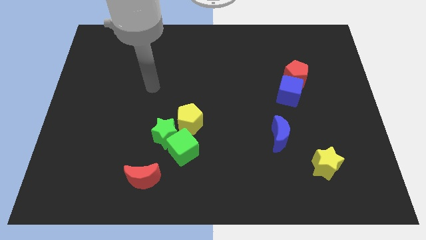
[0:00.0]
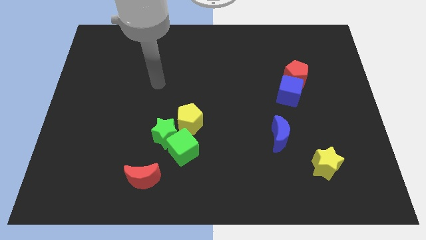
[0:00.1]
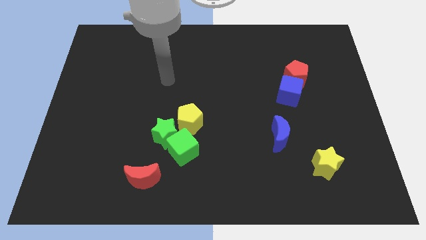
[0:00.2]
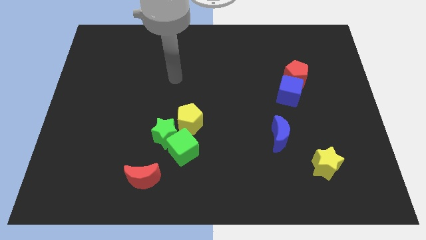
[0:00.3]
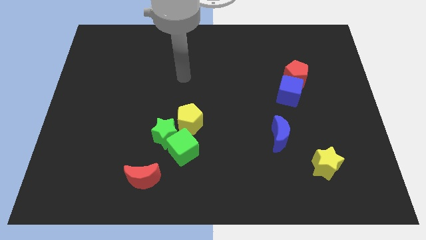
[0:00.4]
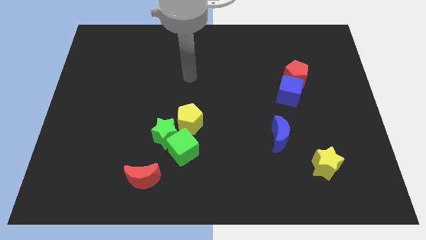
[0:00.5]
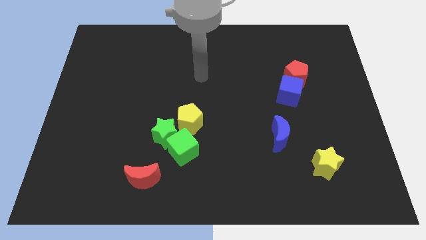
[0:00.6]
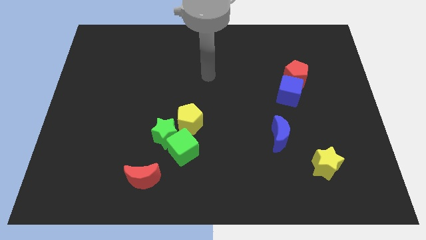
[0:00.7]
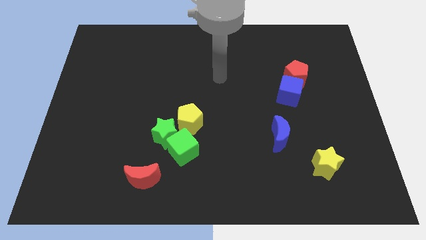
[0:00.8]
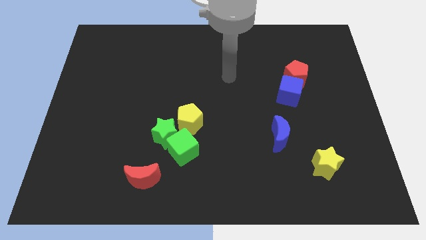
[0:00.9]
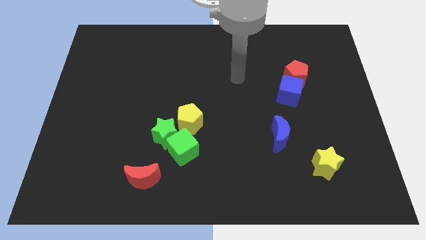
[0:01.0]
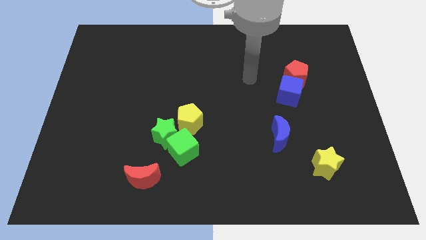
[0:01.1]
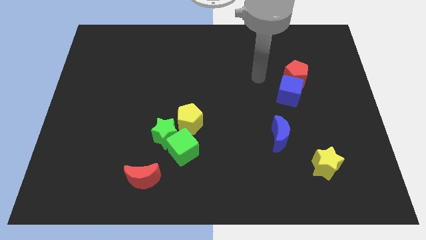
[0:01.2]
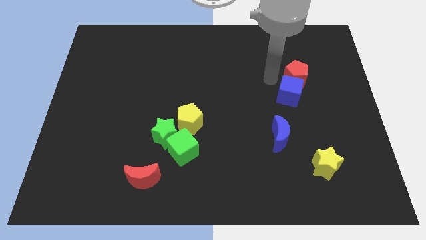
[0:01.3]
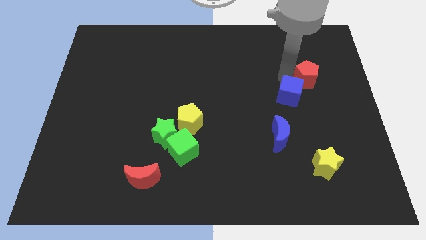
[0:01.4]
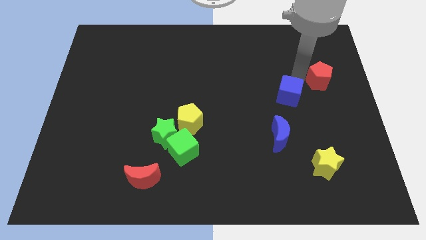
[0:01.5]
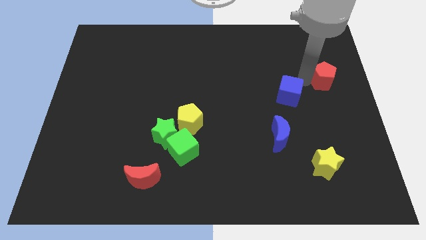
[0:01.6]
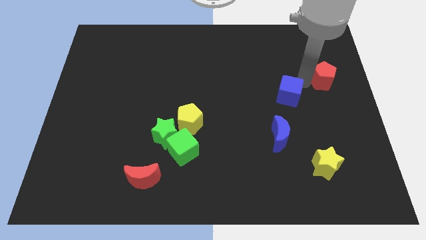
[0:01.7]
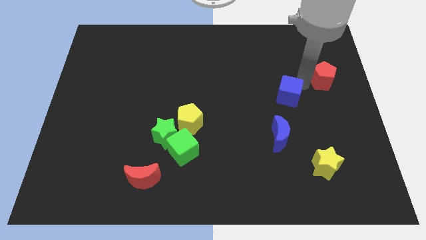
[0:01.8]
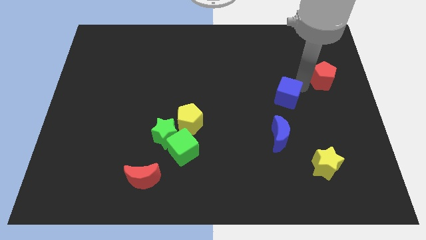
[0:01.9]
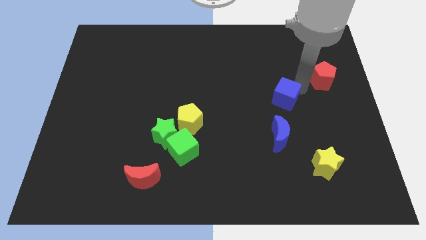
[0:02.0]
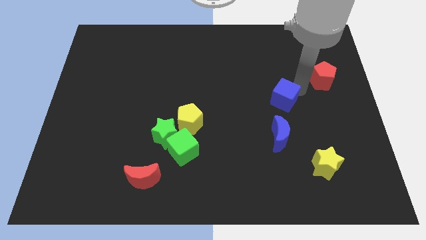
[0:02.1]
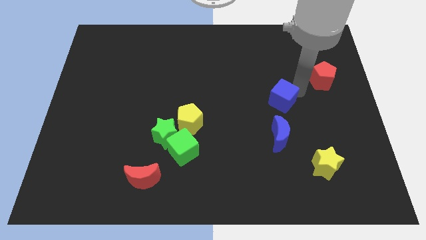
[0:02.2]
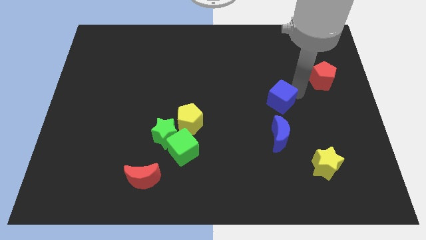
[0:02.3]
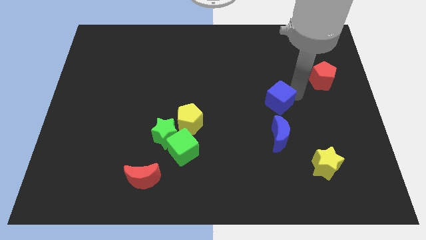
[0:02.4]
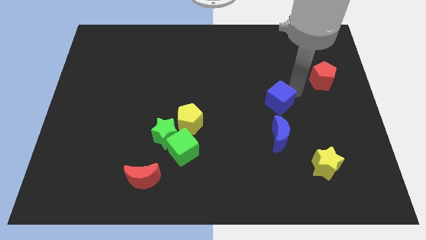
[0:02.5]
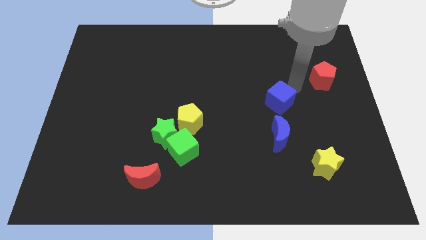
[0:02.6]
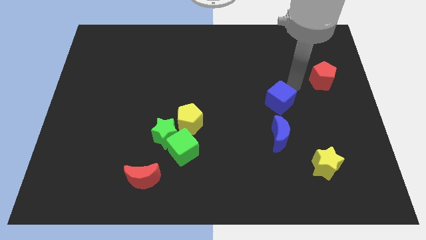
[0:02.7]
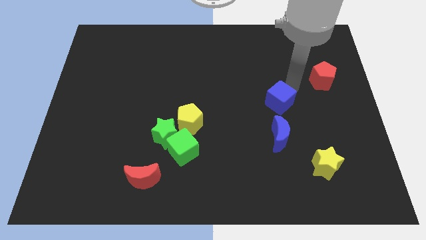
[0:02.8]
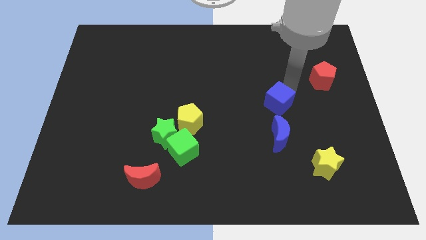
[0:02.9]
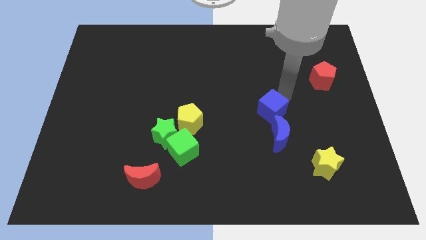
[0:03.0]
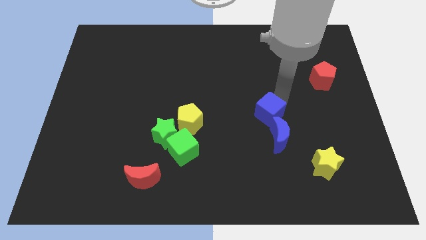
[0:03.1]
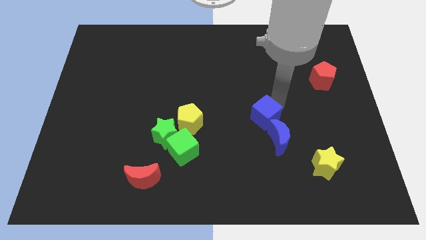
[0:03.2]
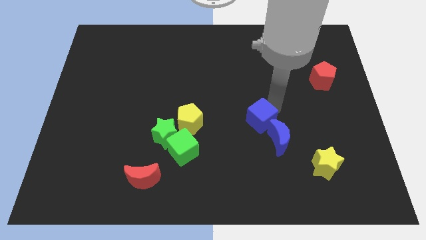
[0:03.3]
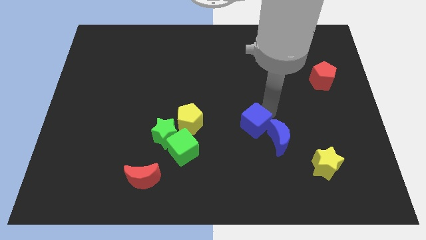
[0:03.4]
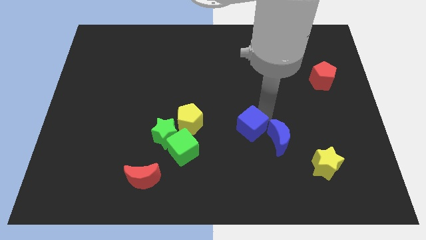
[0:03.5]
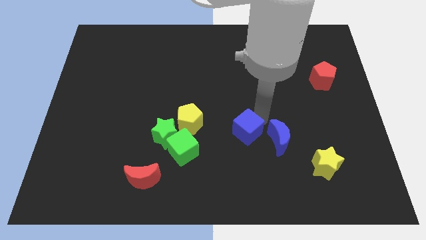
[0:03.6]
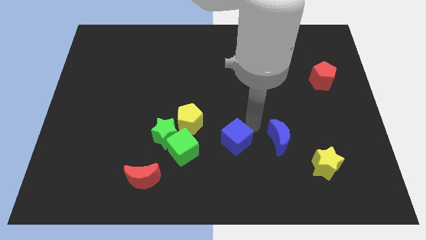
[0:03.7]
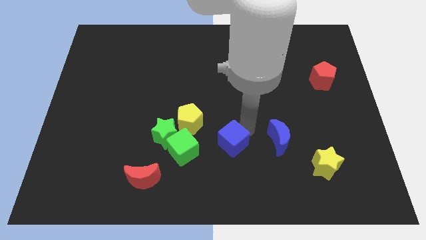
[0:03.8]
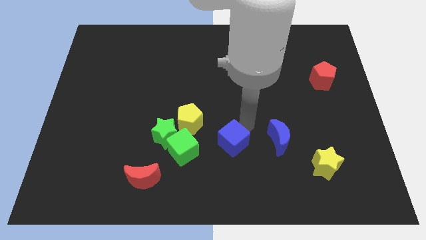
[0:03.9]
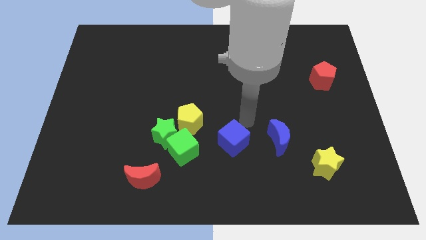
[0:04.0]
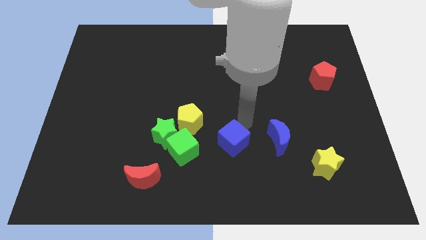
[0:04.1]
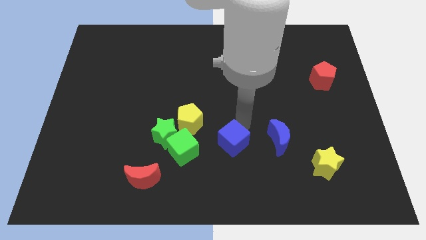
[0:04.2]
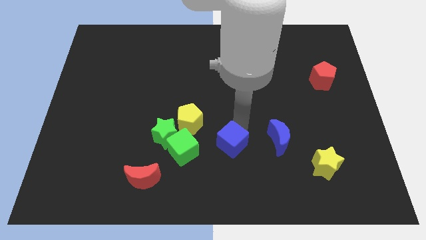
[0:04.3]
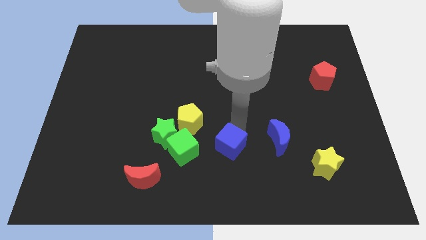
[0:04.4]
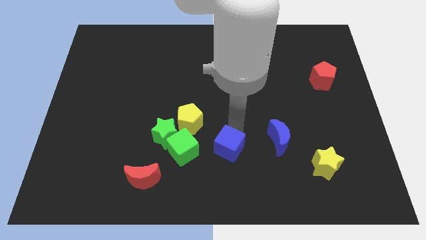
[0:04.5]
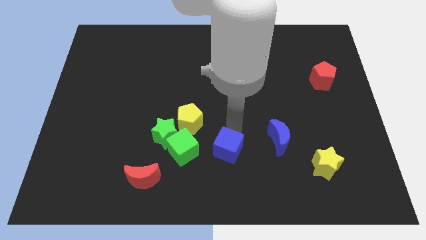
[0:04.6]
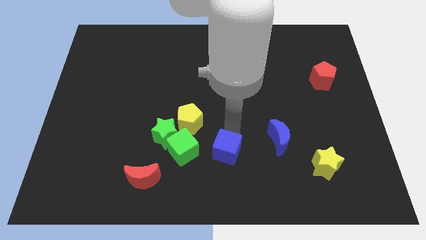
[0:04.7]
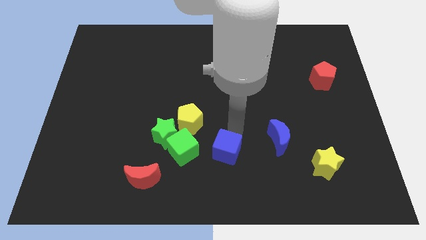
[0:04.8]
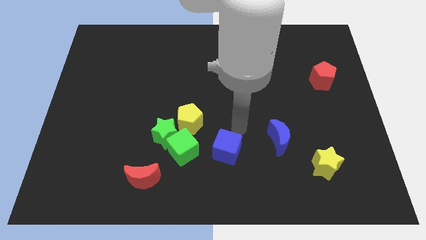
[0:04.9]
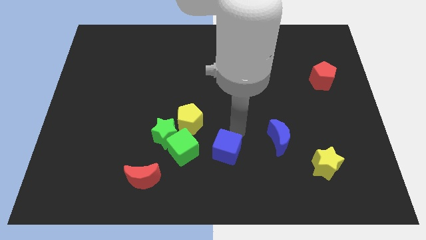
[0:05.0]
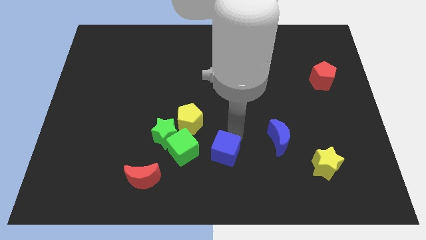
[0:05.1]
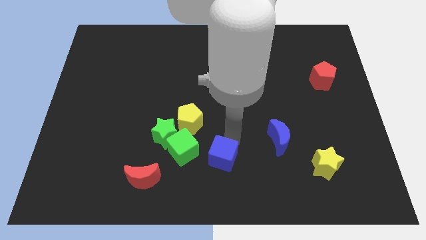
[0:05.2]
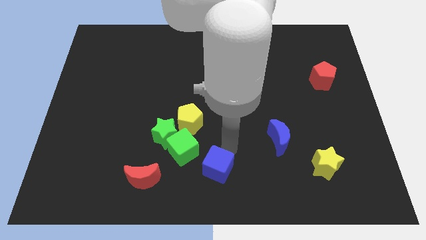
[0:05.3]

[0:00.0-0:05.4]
push the blue cube just right of the red moon

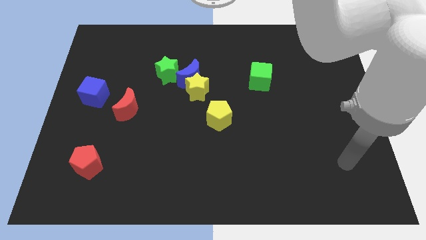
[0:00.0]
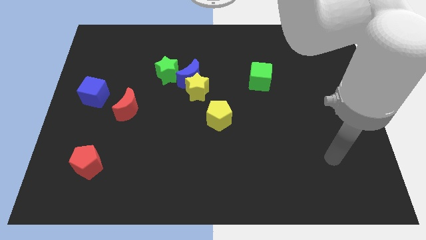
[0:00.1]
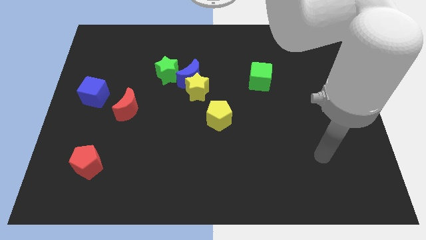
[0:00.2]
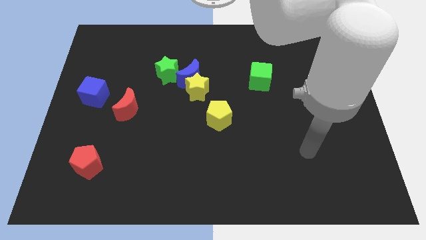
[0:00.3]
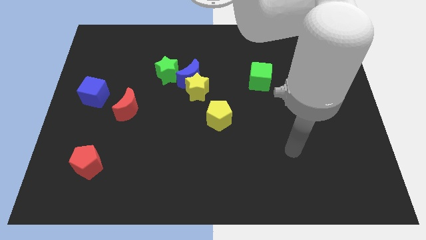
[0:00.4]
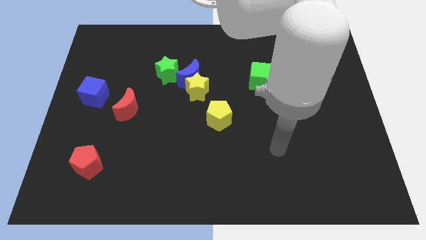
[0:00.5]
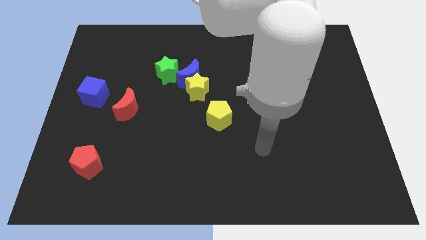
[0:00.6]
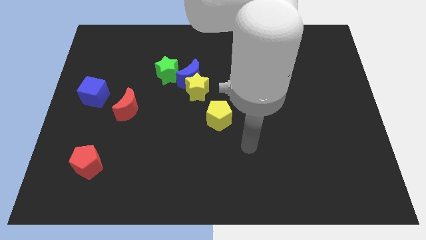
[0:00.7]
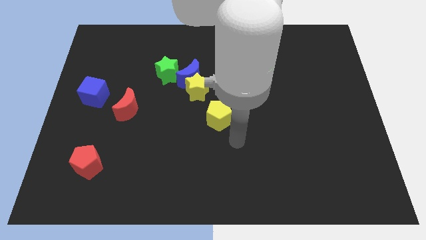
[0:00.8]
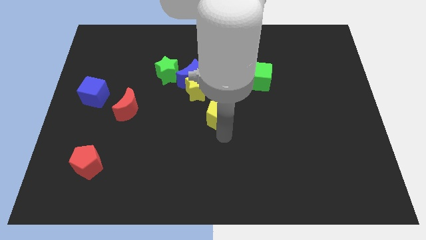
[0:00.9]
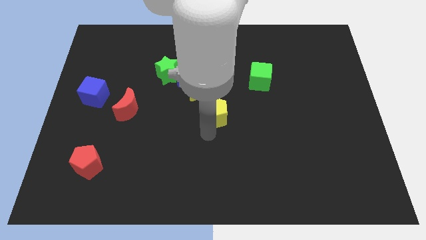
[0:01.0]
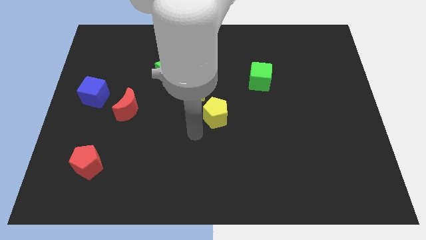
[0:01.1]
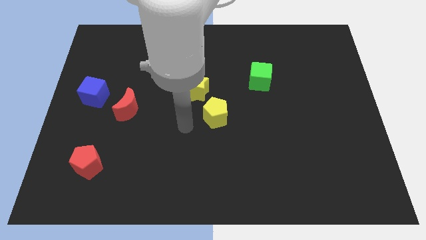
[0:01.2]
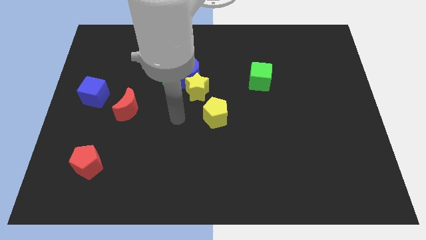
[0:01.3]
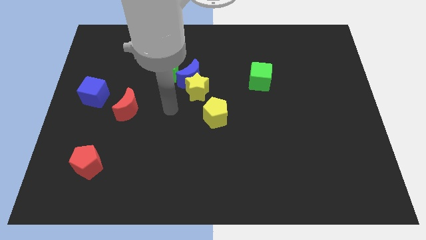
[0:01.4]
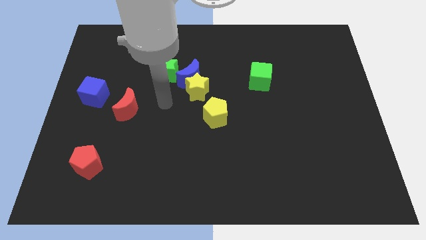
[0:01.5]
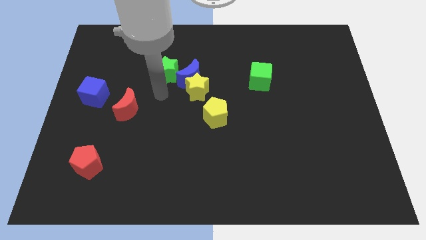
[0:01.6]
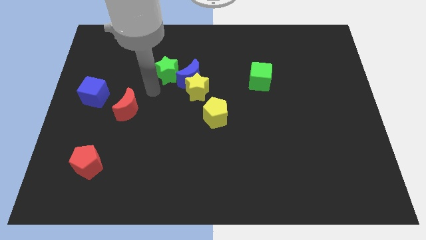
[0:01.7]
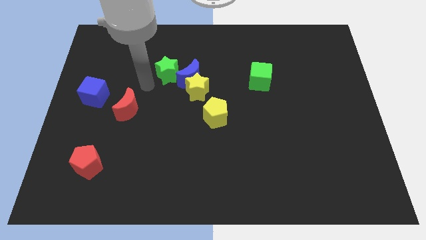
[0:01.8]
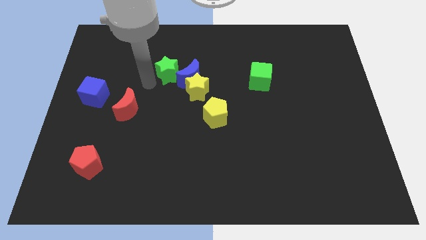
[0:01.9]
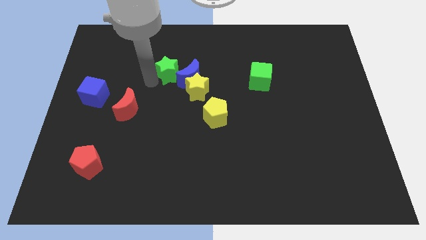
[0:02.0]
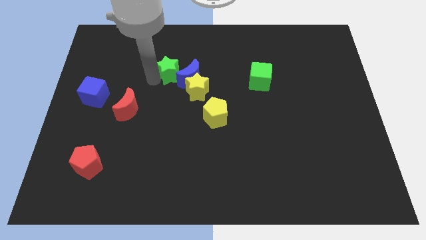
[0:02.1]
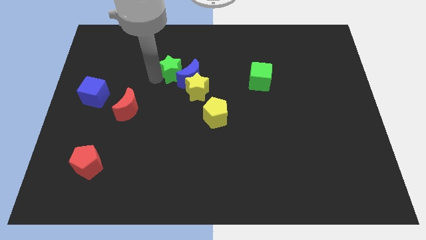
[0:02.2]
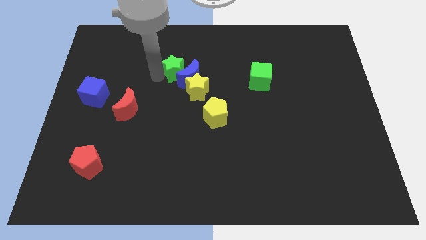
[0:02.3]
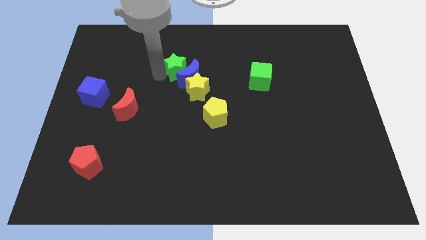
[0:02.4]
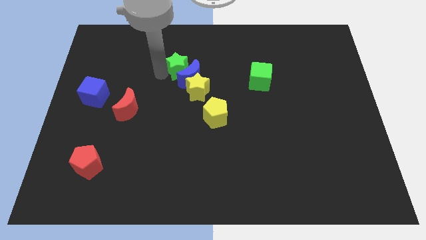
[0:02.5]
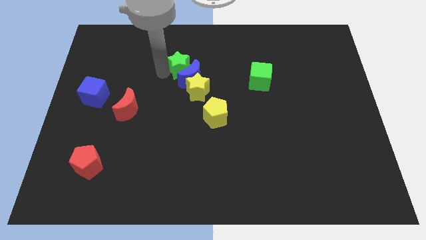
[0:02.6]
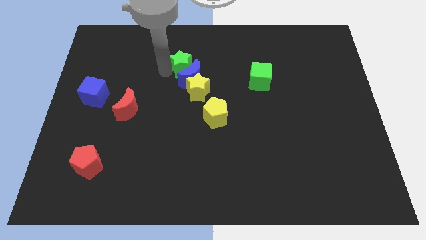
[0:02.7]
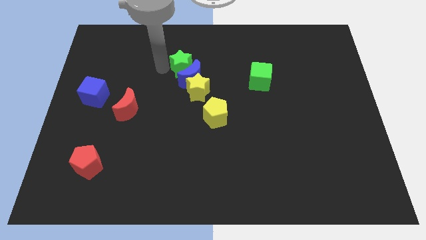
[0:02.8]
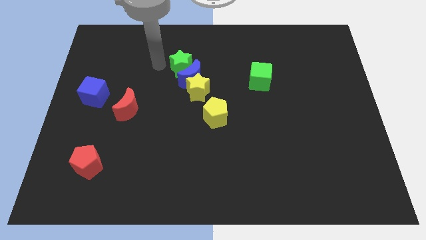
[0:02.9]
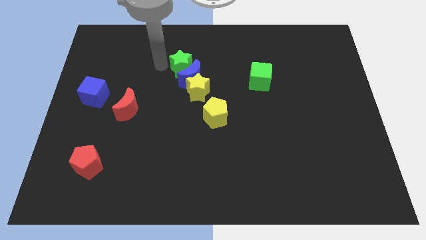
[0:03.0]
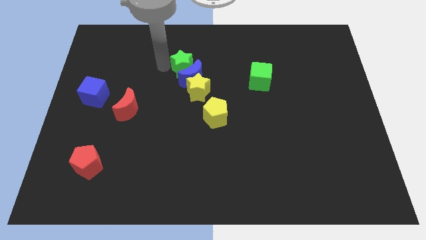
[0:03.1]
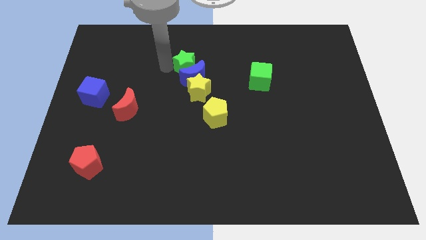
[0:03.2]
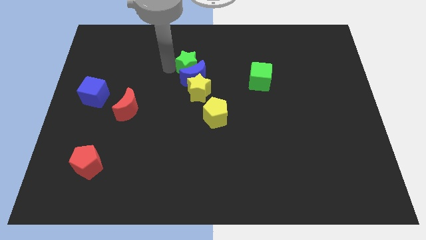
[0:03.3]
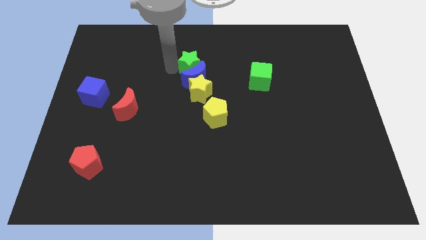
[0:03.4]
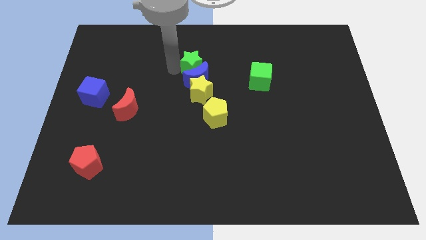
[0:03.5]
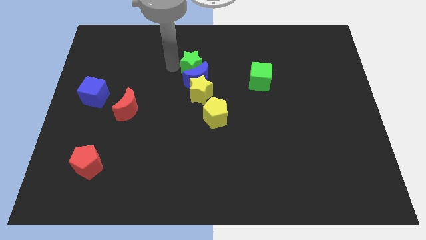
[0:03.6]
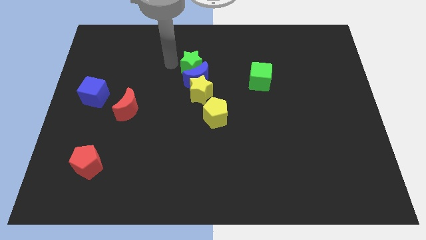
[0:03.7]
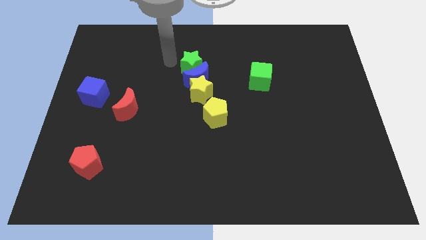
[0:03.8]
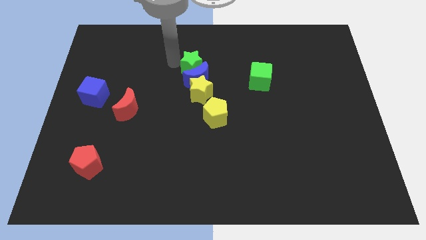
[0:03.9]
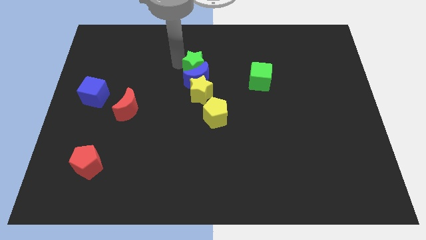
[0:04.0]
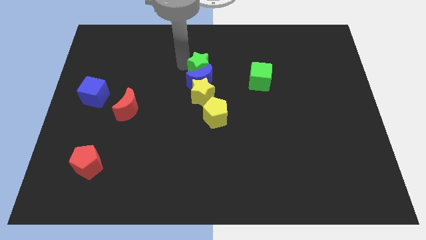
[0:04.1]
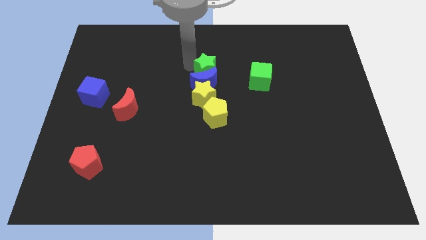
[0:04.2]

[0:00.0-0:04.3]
put the green star to the top of the yellow pentagon
